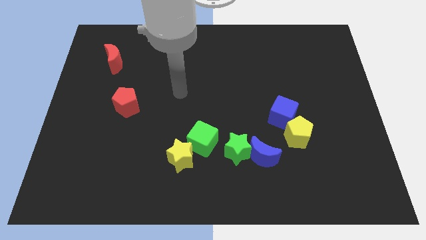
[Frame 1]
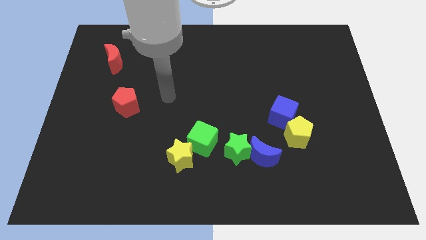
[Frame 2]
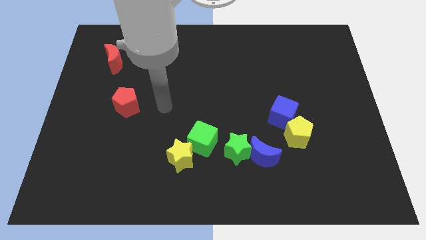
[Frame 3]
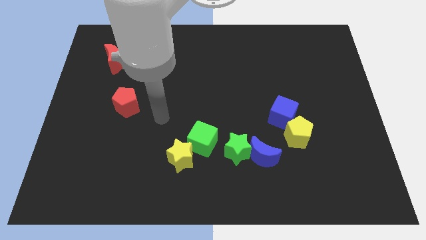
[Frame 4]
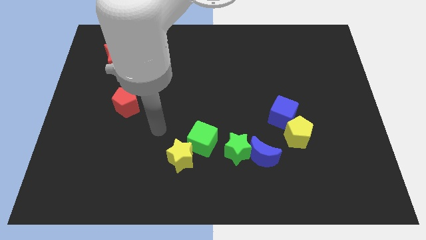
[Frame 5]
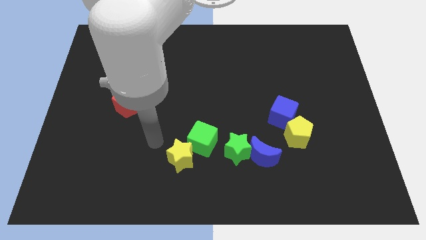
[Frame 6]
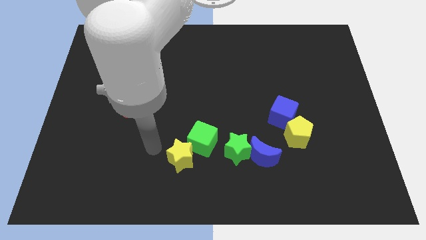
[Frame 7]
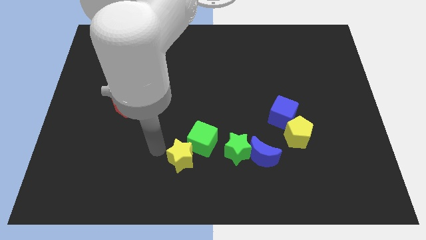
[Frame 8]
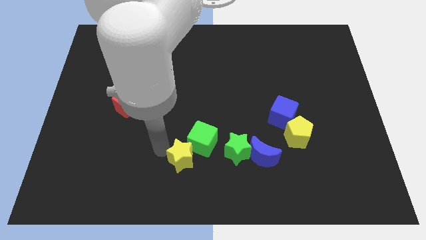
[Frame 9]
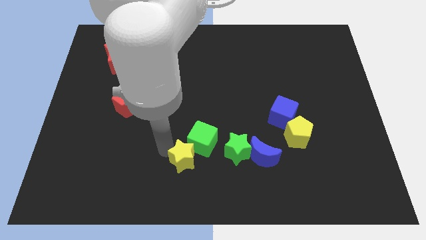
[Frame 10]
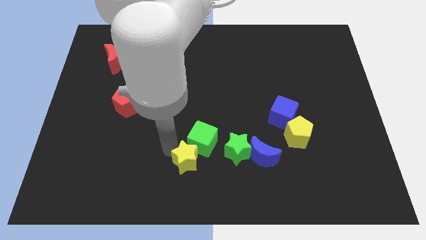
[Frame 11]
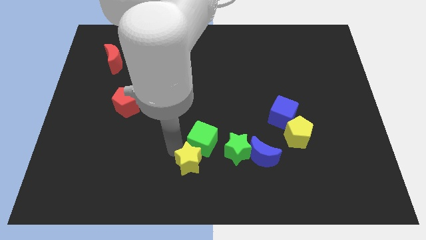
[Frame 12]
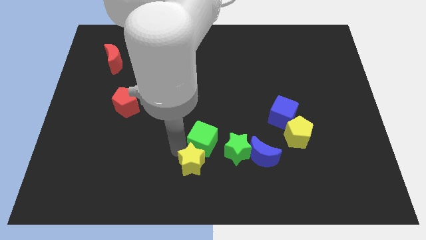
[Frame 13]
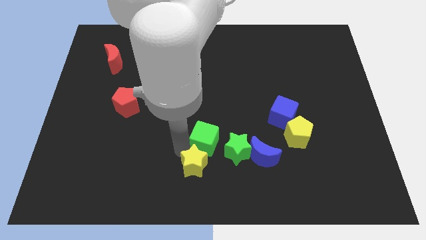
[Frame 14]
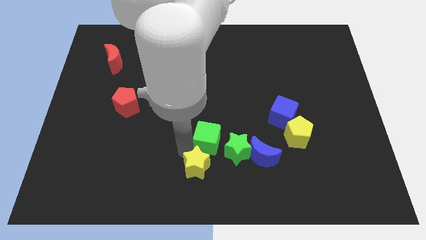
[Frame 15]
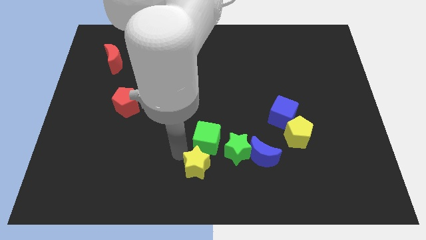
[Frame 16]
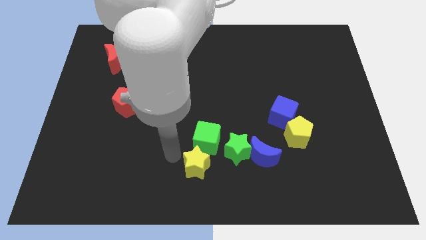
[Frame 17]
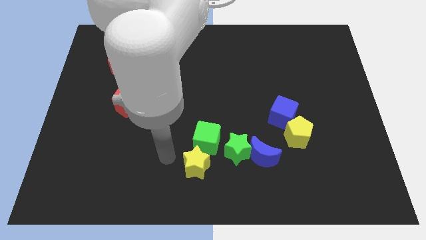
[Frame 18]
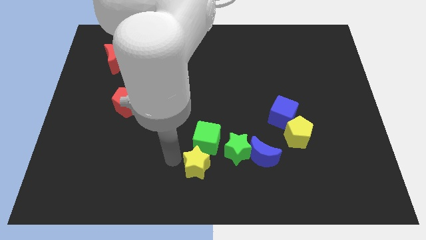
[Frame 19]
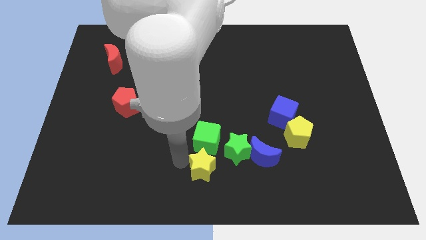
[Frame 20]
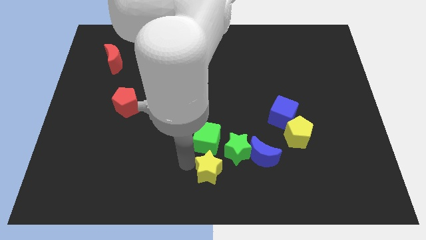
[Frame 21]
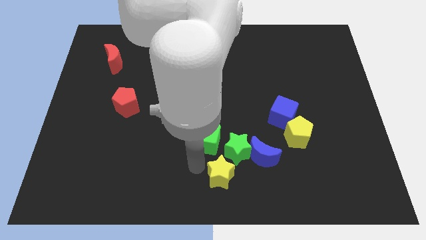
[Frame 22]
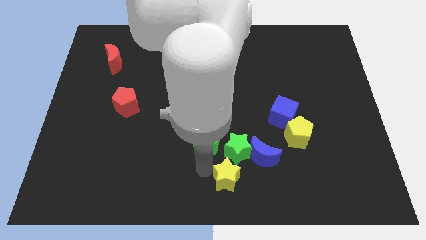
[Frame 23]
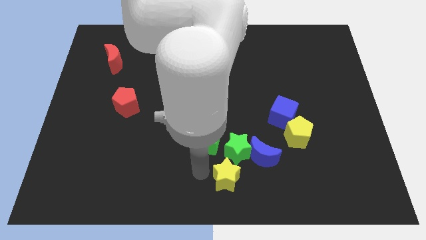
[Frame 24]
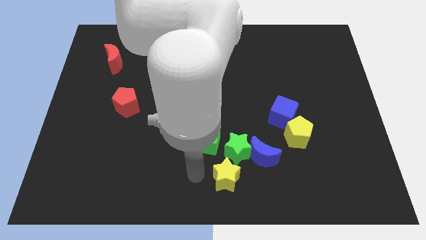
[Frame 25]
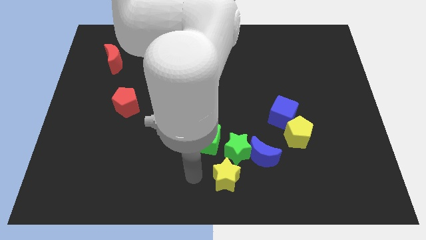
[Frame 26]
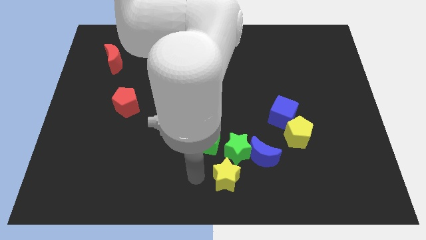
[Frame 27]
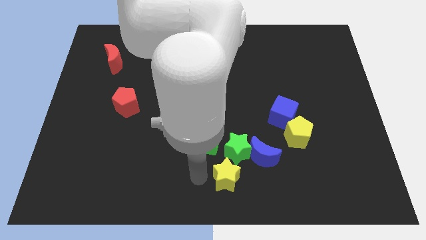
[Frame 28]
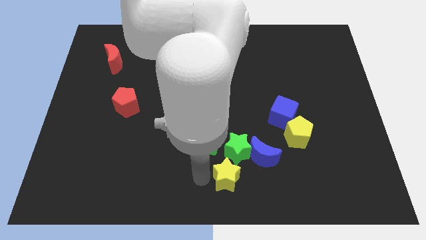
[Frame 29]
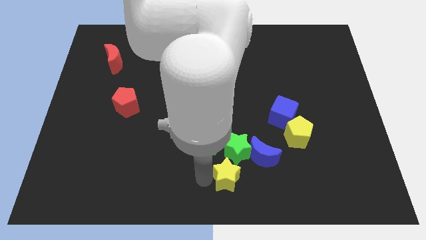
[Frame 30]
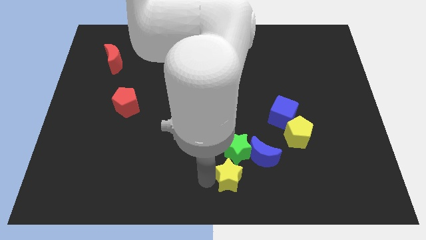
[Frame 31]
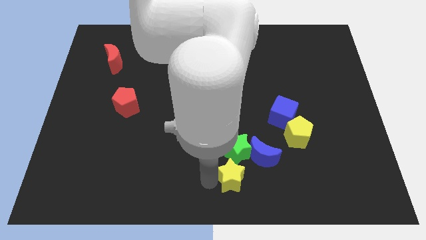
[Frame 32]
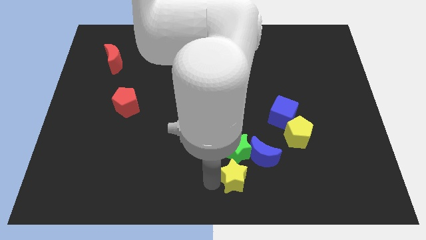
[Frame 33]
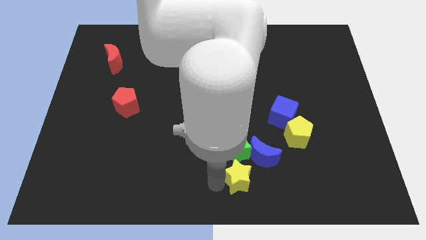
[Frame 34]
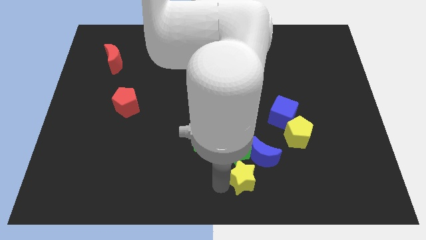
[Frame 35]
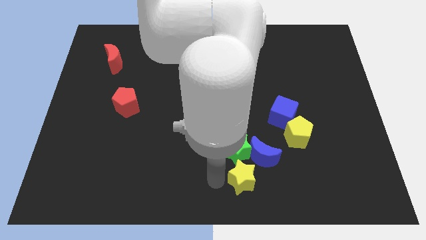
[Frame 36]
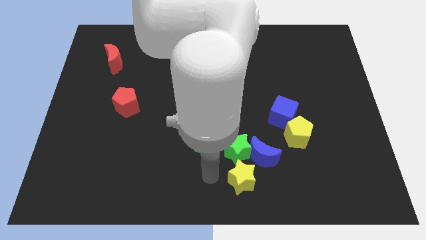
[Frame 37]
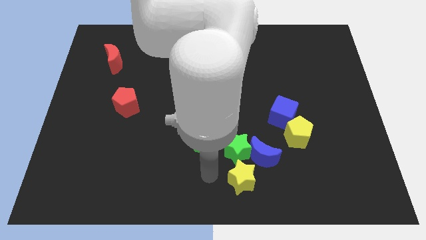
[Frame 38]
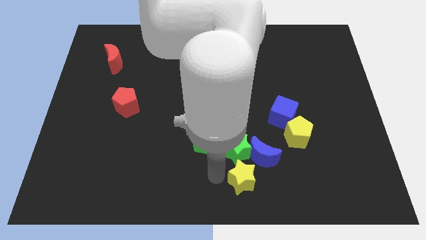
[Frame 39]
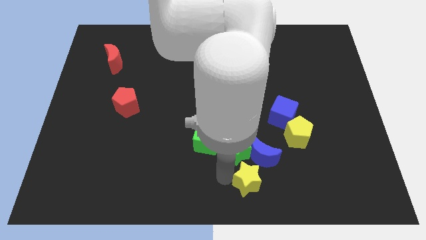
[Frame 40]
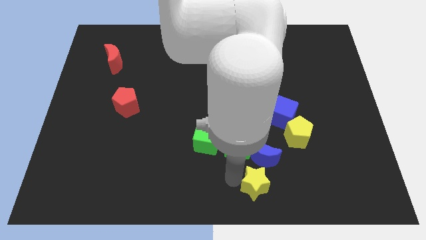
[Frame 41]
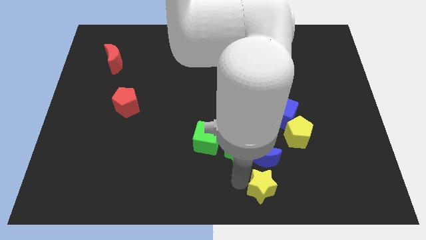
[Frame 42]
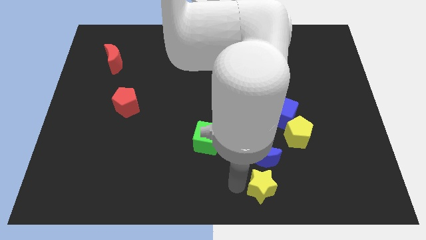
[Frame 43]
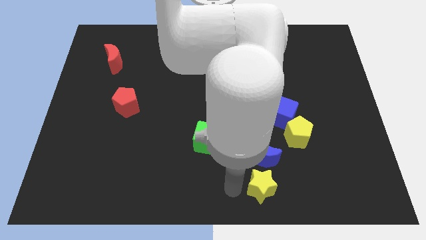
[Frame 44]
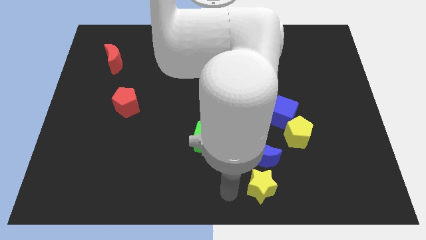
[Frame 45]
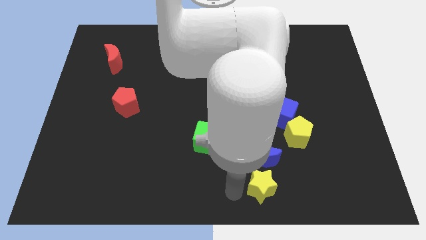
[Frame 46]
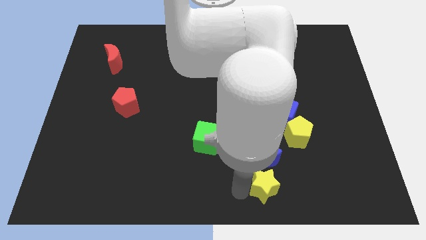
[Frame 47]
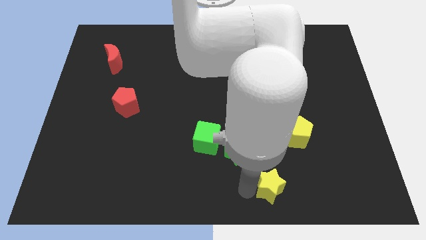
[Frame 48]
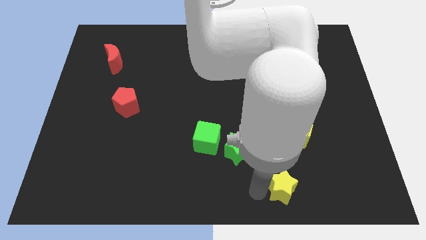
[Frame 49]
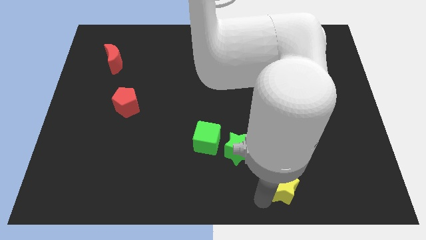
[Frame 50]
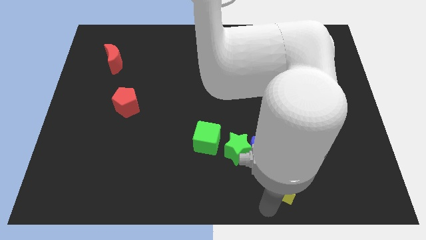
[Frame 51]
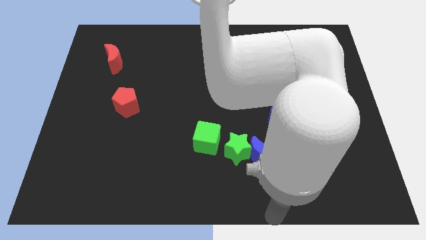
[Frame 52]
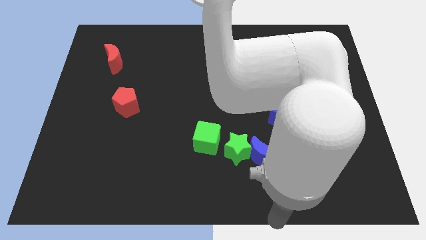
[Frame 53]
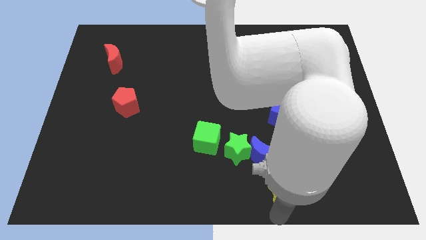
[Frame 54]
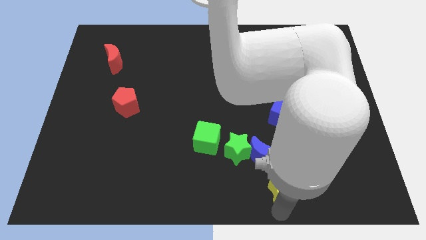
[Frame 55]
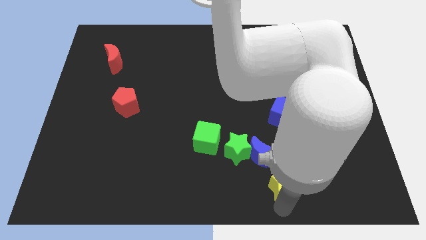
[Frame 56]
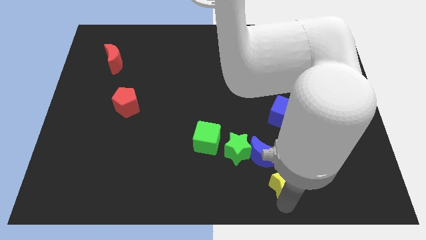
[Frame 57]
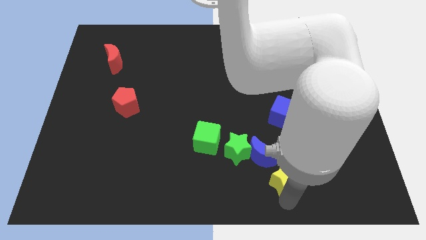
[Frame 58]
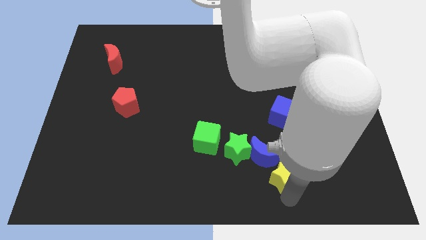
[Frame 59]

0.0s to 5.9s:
move the yellow star to the bottom of the blue cube
